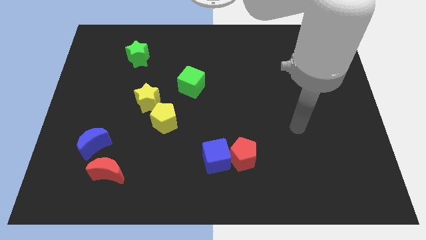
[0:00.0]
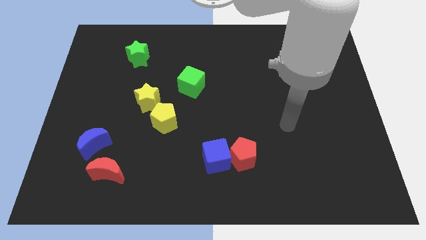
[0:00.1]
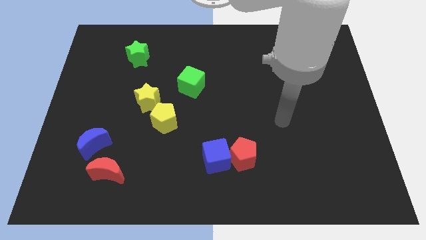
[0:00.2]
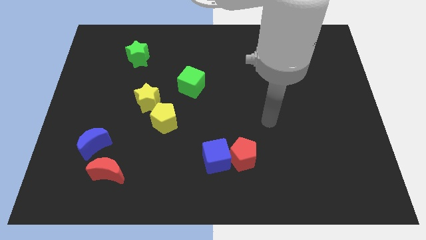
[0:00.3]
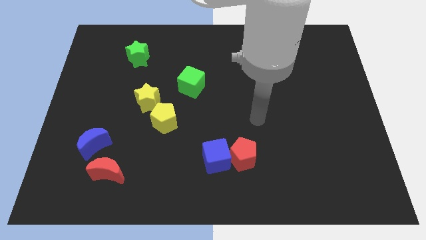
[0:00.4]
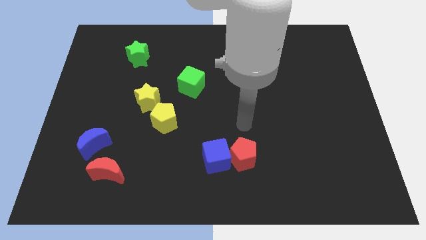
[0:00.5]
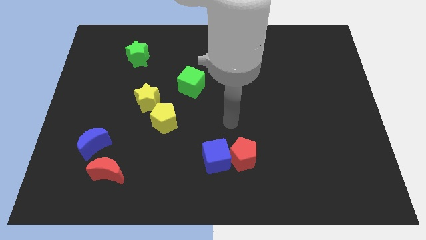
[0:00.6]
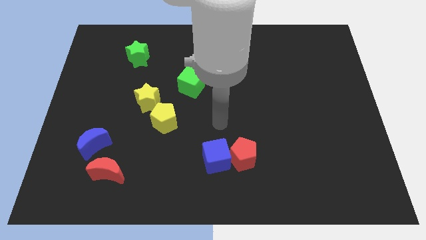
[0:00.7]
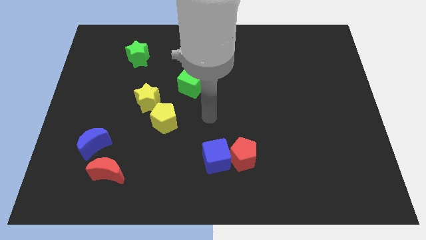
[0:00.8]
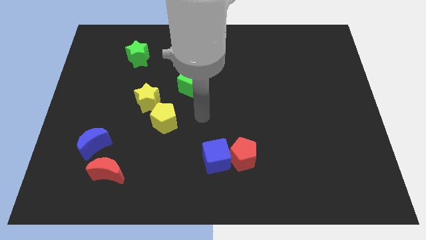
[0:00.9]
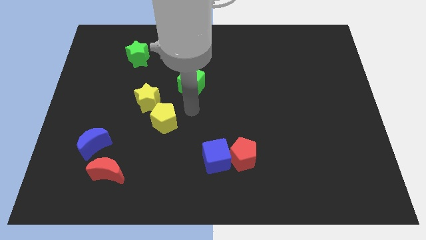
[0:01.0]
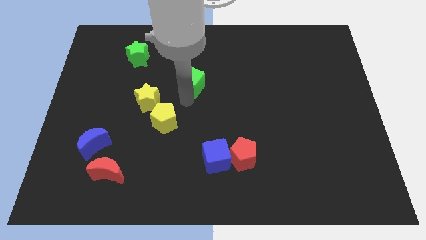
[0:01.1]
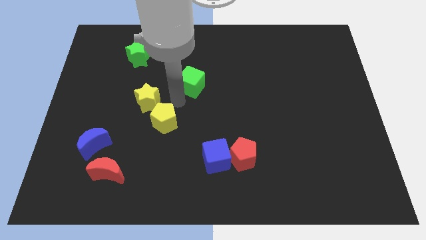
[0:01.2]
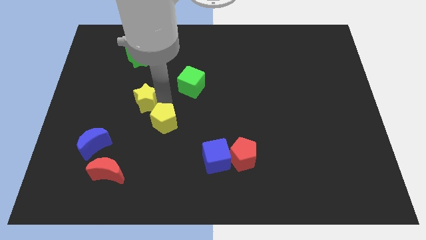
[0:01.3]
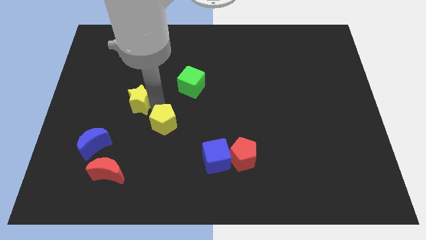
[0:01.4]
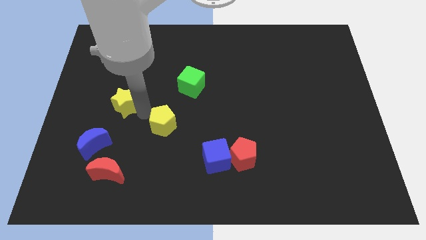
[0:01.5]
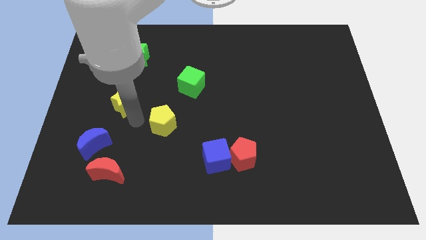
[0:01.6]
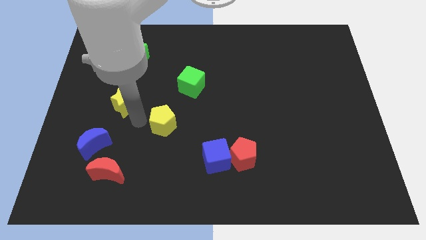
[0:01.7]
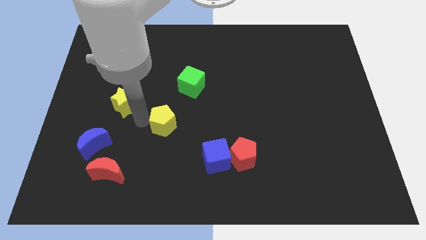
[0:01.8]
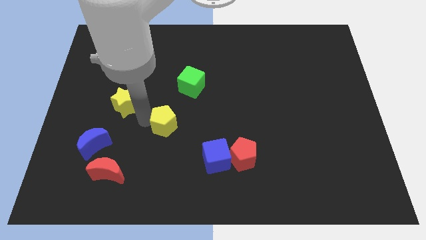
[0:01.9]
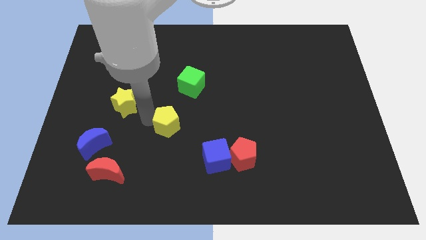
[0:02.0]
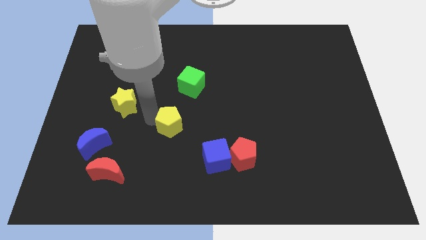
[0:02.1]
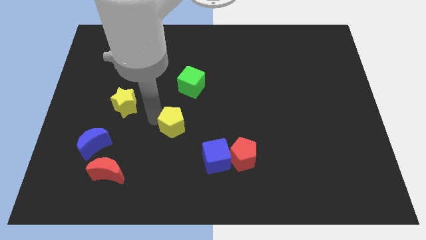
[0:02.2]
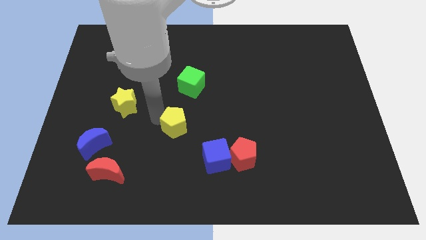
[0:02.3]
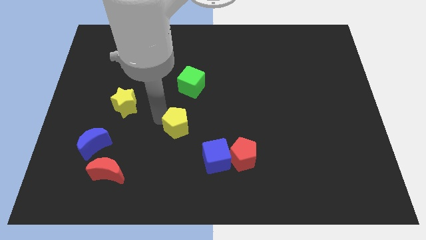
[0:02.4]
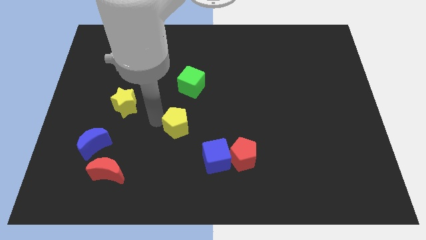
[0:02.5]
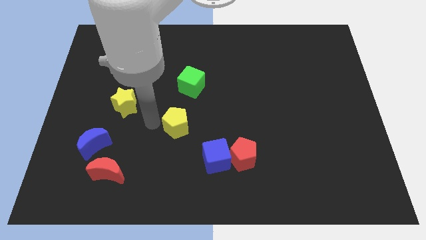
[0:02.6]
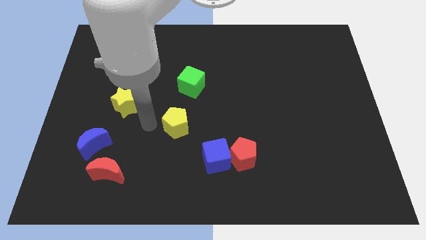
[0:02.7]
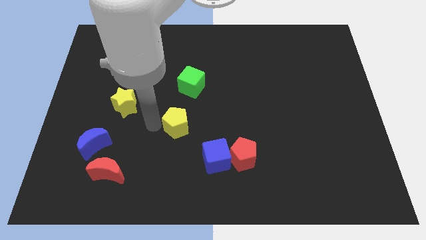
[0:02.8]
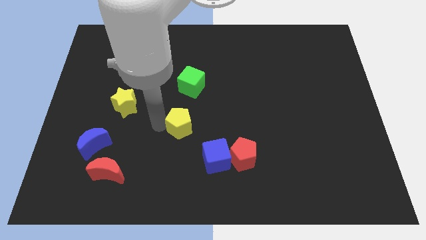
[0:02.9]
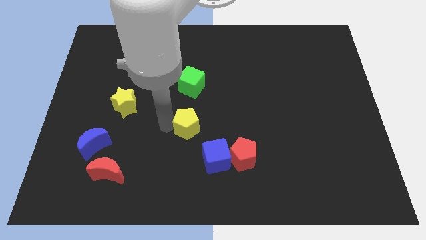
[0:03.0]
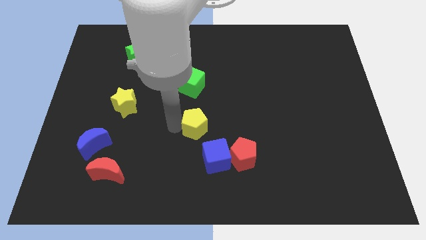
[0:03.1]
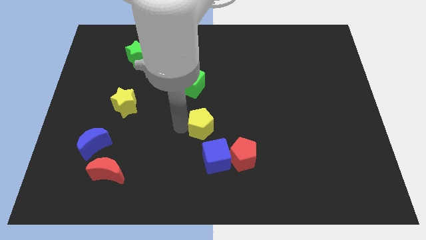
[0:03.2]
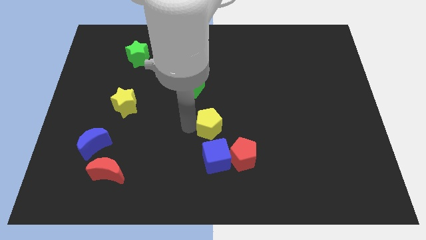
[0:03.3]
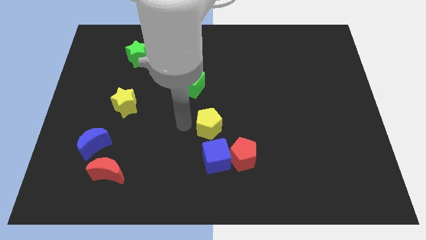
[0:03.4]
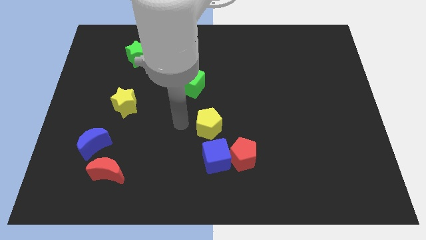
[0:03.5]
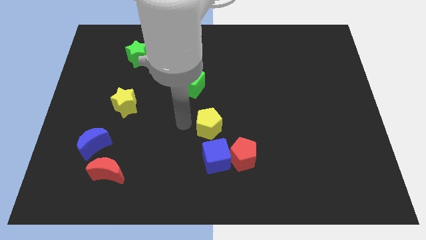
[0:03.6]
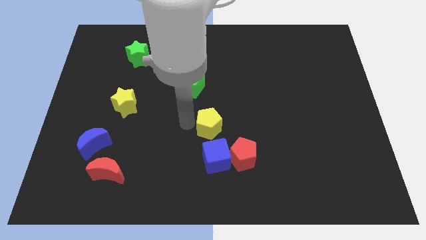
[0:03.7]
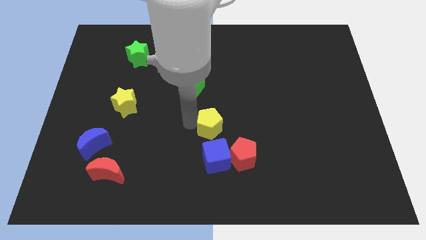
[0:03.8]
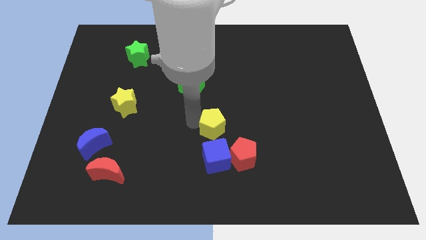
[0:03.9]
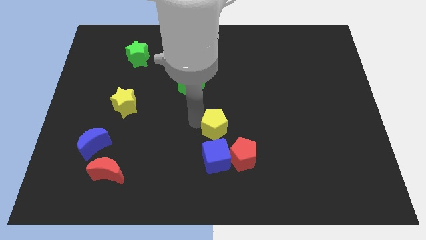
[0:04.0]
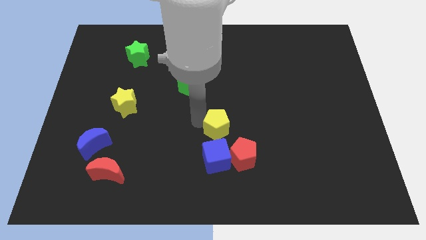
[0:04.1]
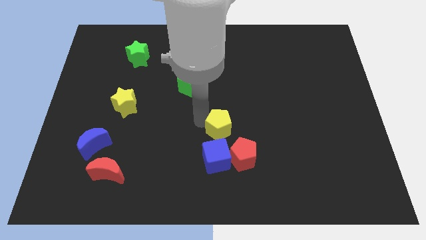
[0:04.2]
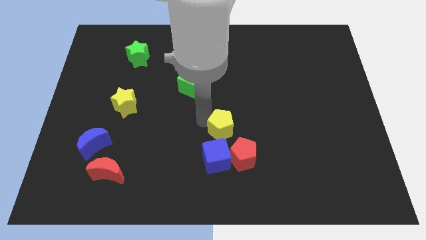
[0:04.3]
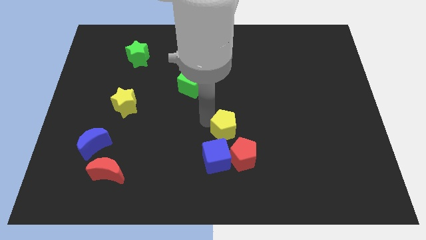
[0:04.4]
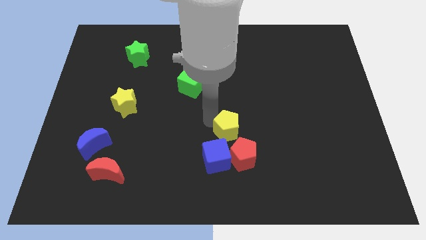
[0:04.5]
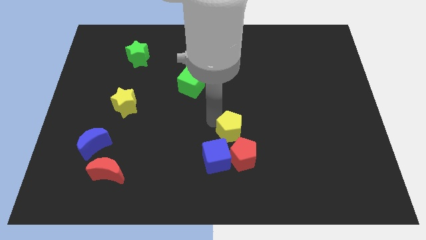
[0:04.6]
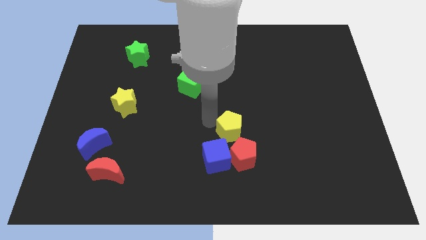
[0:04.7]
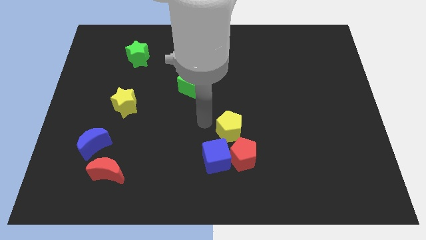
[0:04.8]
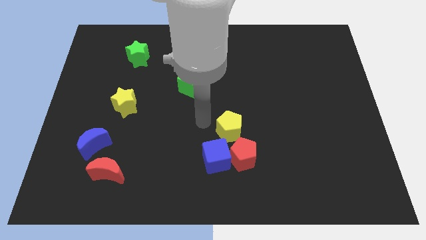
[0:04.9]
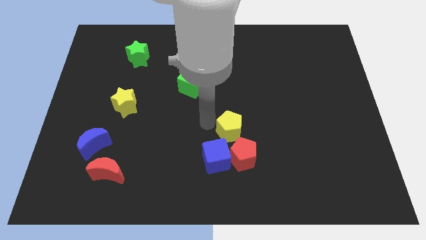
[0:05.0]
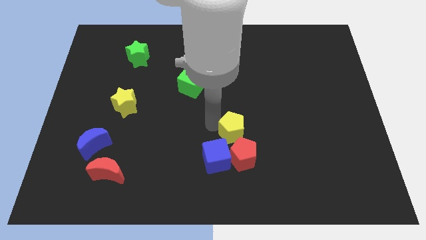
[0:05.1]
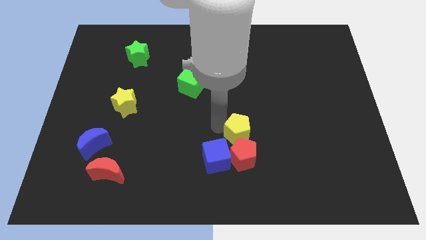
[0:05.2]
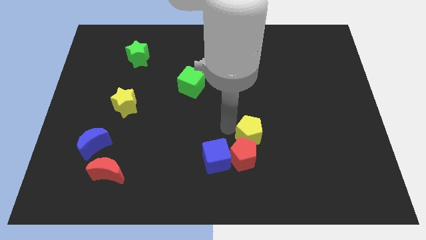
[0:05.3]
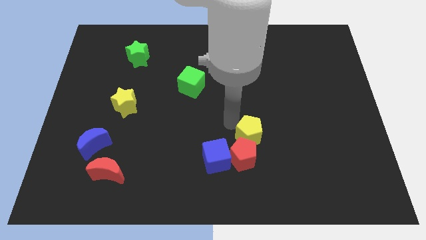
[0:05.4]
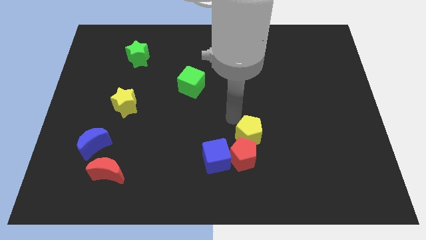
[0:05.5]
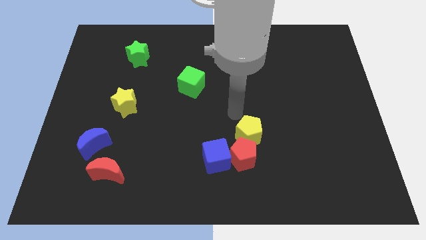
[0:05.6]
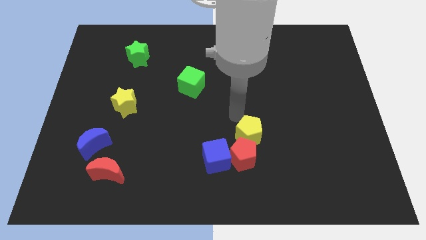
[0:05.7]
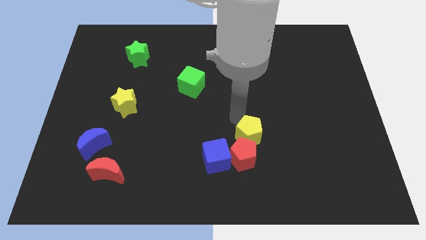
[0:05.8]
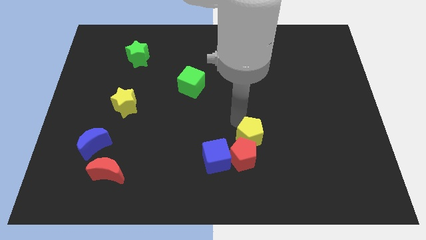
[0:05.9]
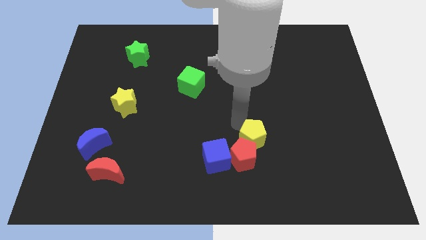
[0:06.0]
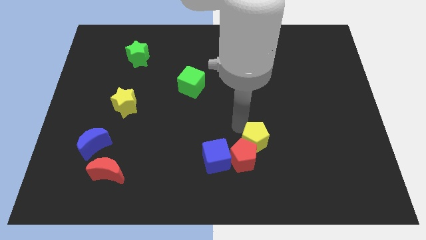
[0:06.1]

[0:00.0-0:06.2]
push the yellow pentagon right of the blue cube
